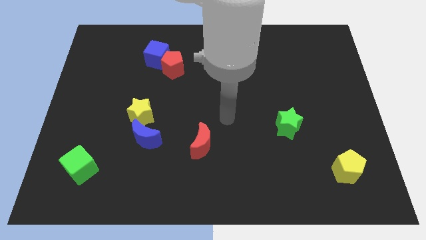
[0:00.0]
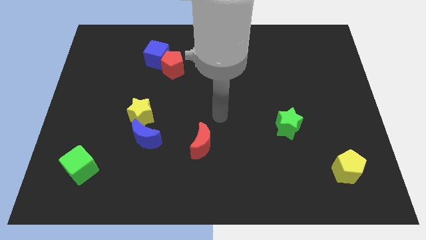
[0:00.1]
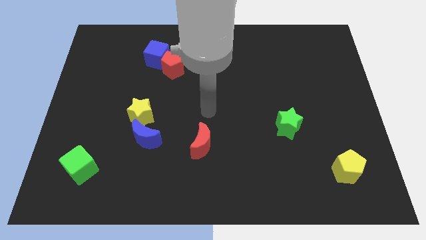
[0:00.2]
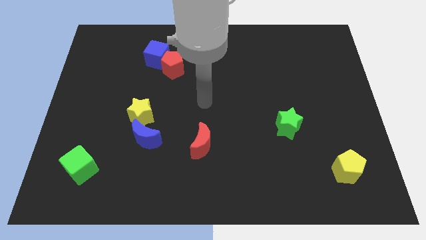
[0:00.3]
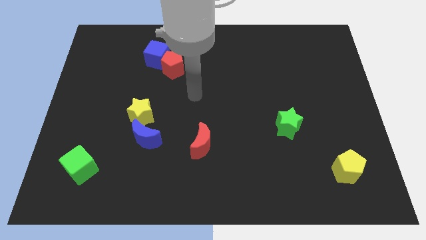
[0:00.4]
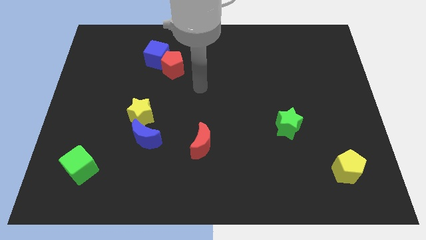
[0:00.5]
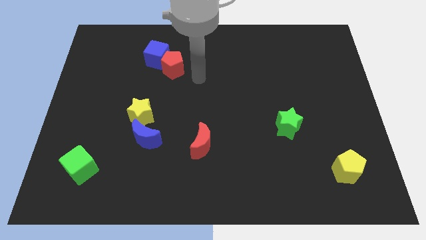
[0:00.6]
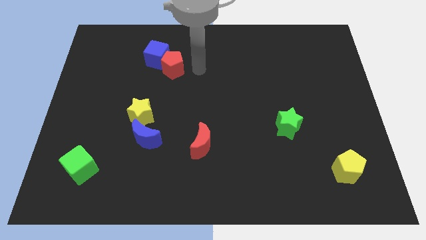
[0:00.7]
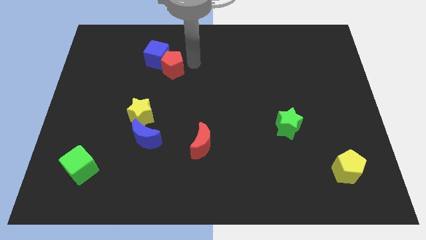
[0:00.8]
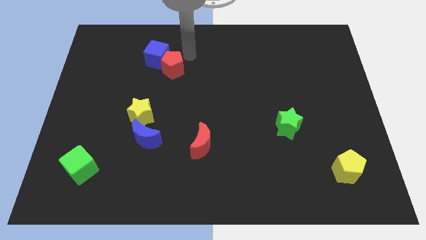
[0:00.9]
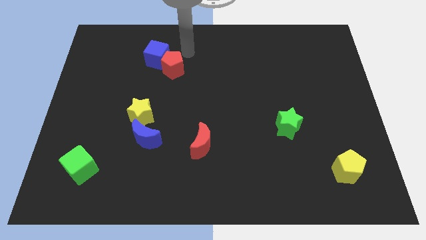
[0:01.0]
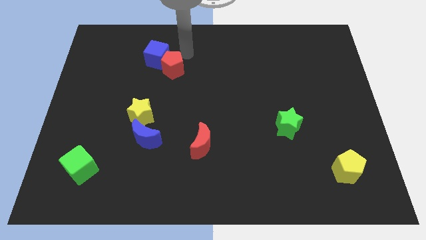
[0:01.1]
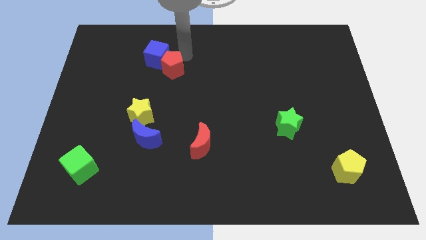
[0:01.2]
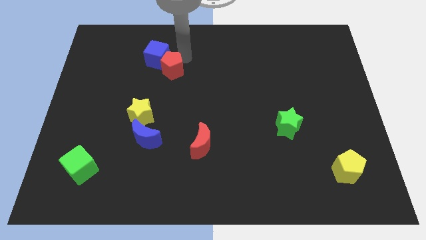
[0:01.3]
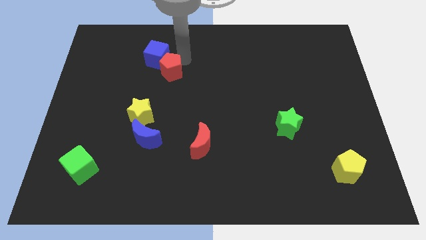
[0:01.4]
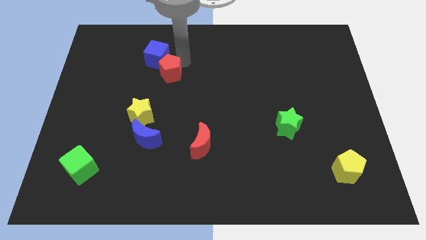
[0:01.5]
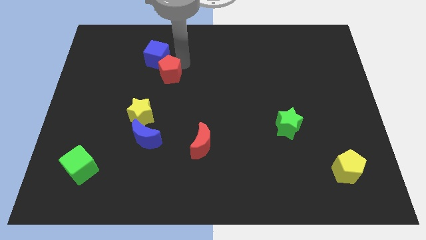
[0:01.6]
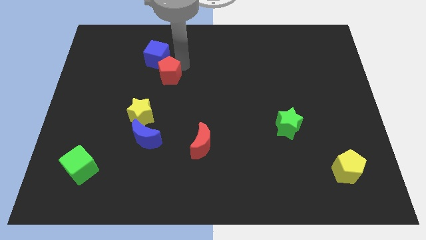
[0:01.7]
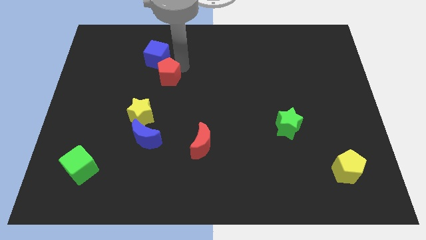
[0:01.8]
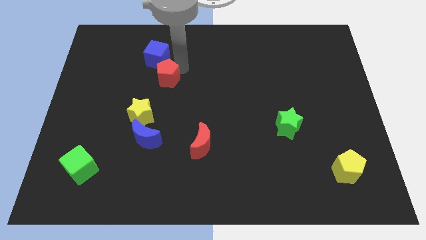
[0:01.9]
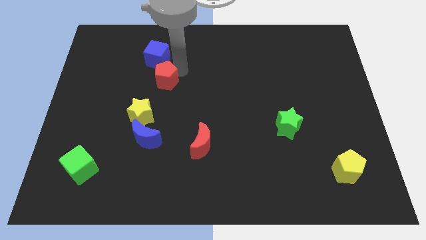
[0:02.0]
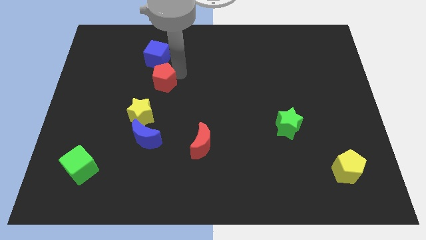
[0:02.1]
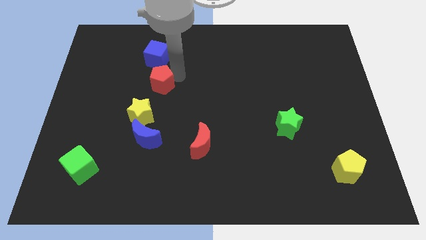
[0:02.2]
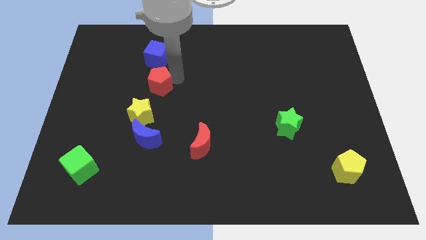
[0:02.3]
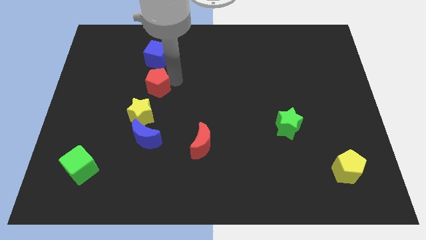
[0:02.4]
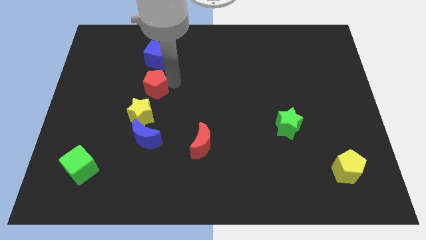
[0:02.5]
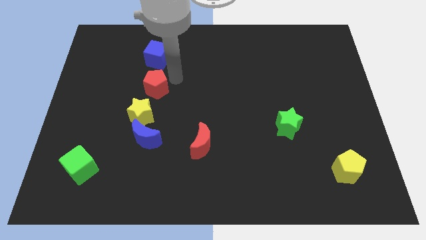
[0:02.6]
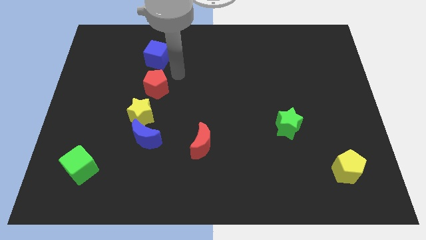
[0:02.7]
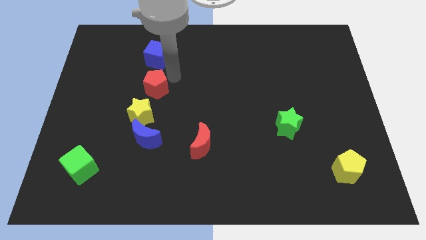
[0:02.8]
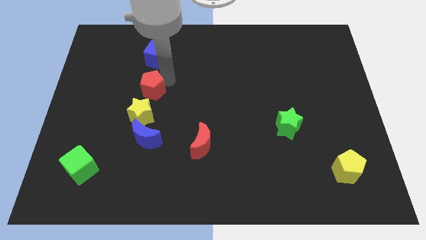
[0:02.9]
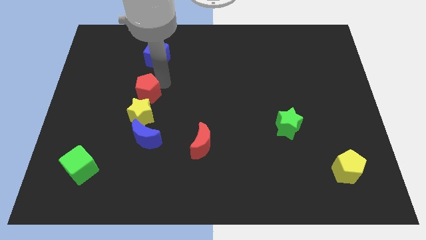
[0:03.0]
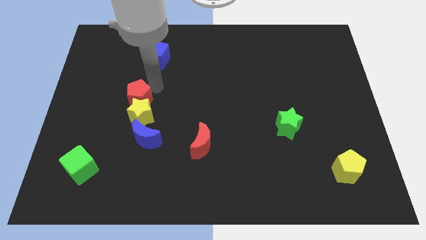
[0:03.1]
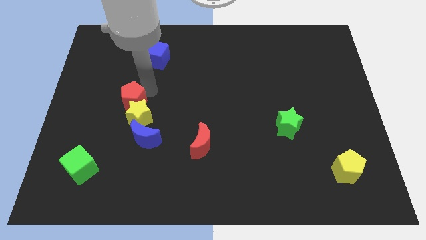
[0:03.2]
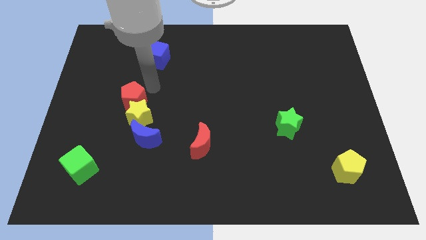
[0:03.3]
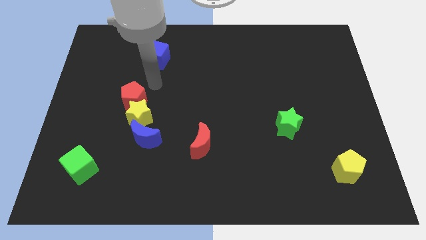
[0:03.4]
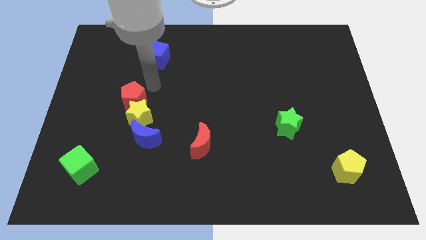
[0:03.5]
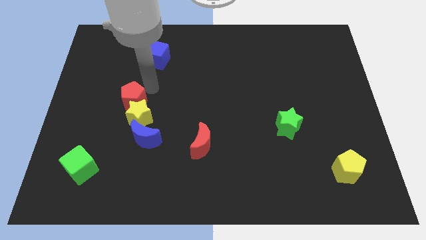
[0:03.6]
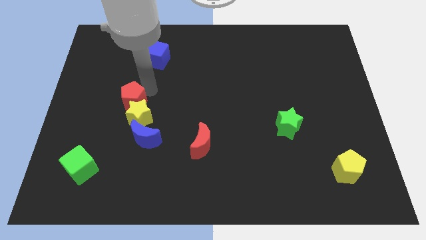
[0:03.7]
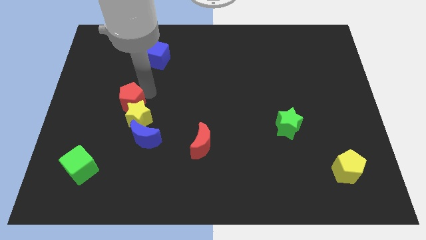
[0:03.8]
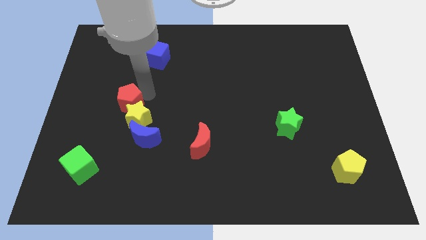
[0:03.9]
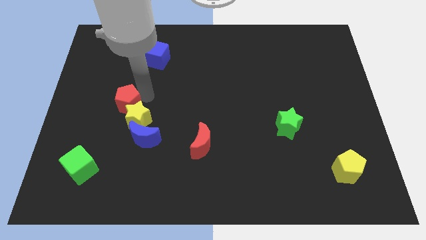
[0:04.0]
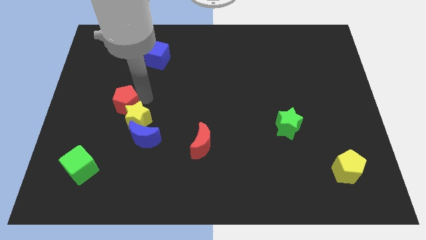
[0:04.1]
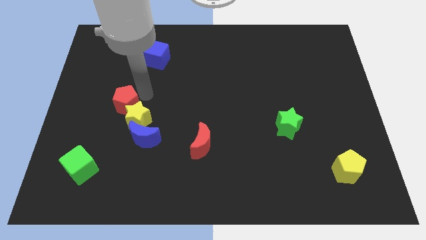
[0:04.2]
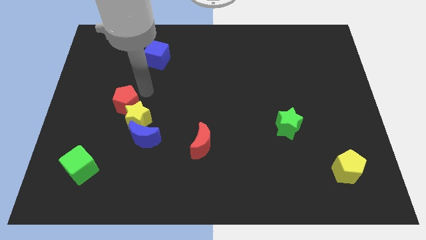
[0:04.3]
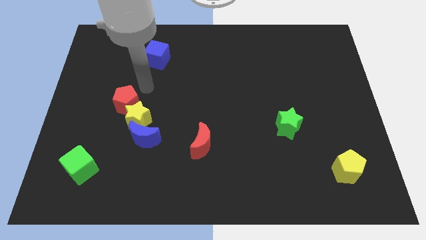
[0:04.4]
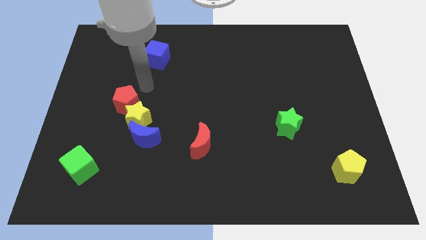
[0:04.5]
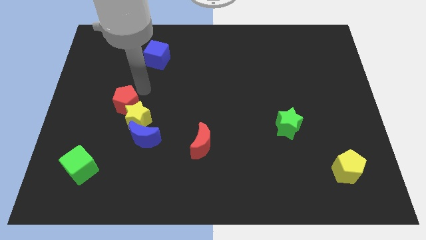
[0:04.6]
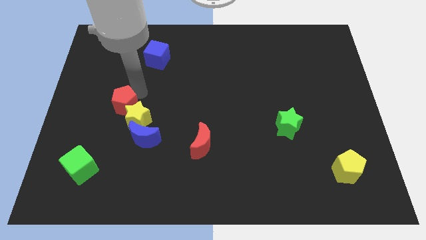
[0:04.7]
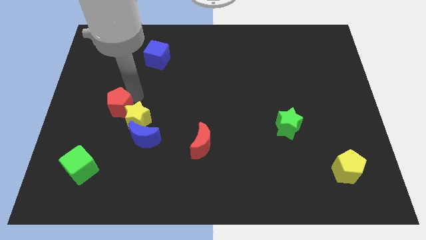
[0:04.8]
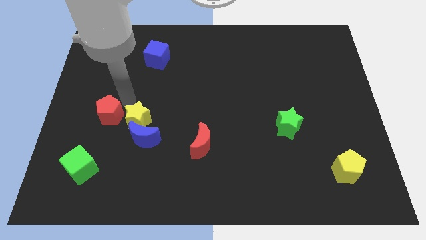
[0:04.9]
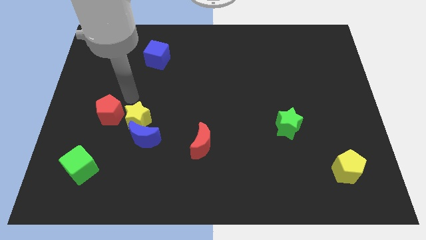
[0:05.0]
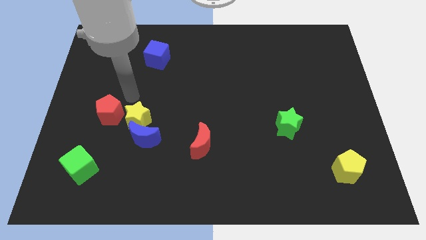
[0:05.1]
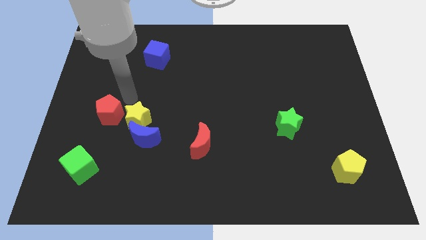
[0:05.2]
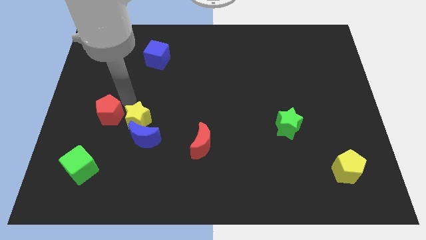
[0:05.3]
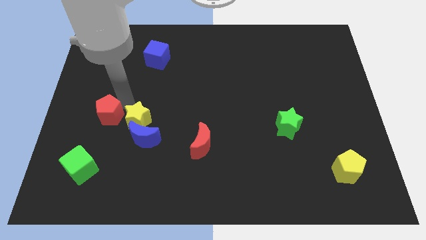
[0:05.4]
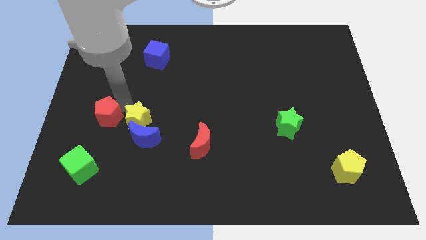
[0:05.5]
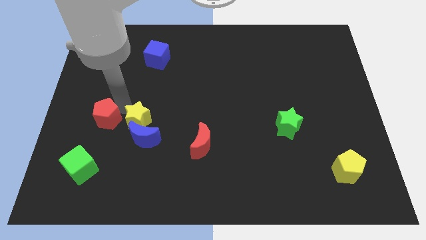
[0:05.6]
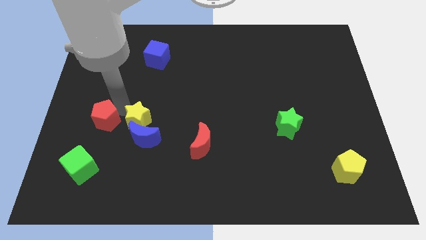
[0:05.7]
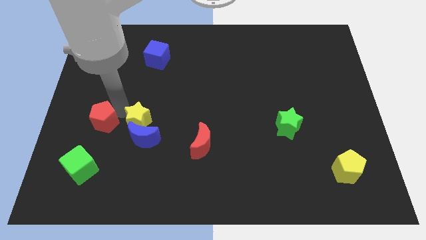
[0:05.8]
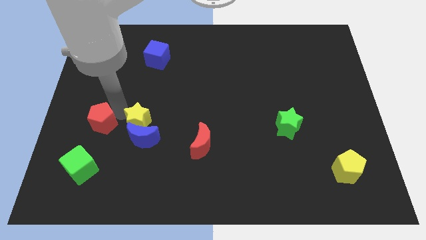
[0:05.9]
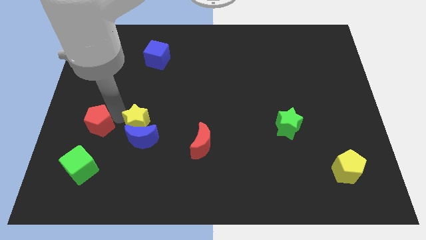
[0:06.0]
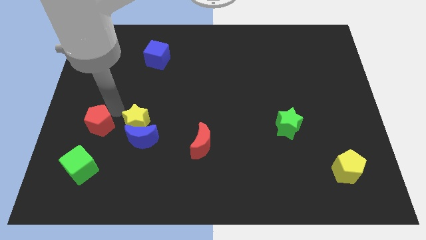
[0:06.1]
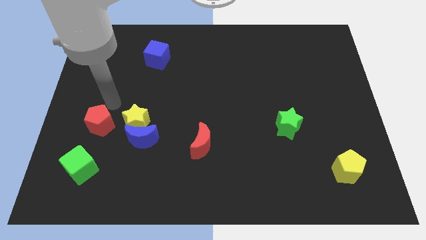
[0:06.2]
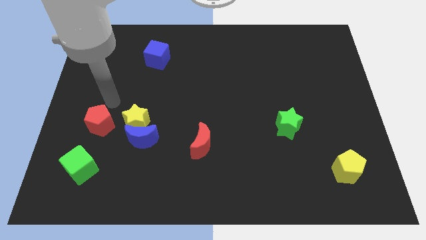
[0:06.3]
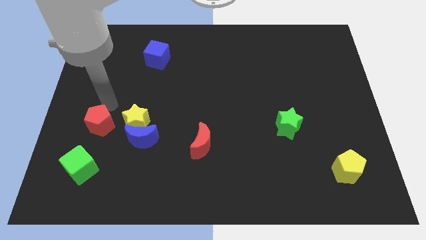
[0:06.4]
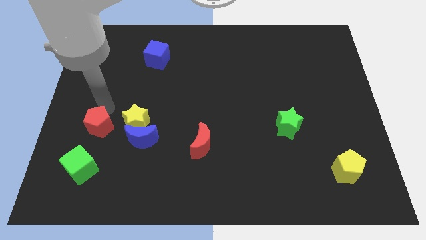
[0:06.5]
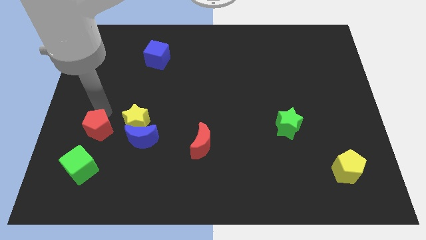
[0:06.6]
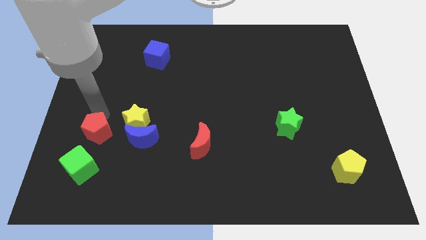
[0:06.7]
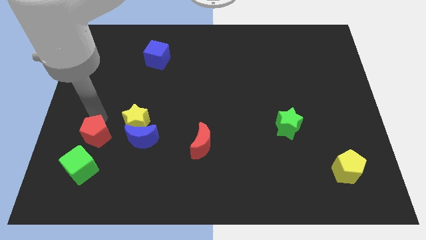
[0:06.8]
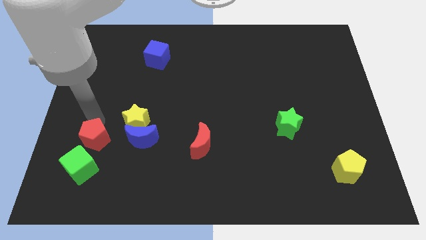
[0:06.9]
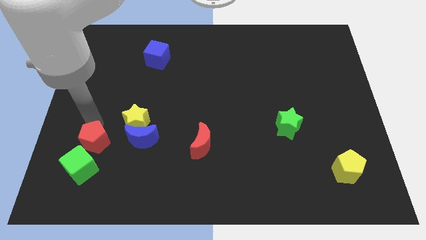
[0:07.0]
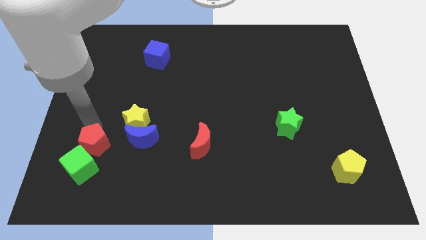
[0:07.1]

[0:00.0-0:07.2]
slide the red pentagon towards the green cube

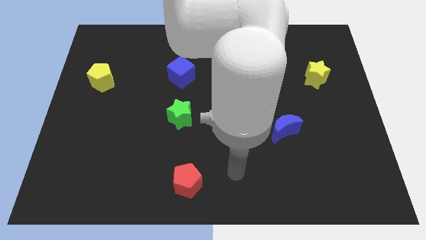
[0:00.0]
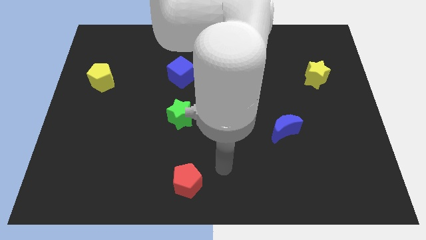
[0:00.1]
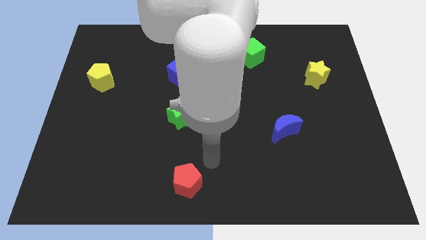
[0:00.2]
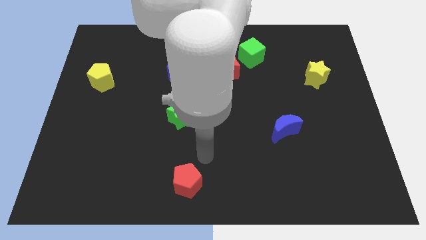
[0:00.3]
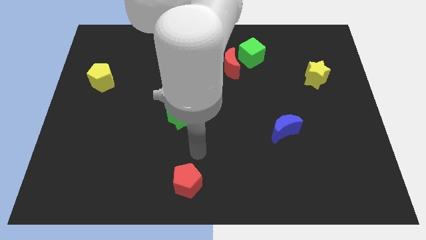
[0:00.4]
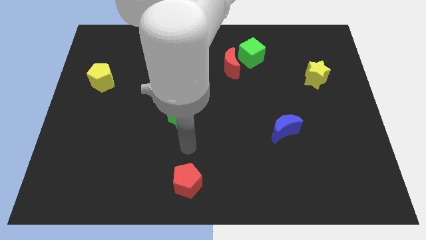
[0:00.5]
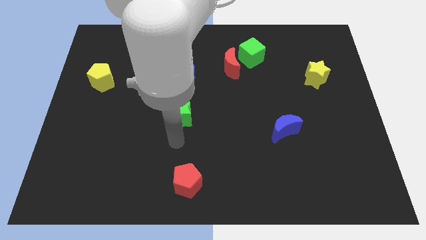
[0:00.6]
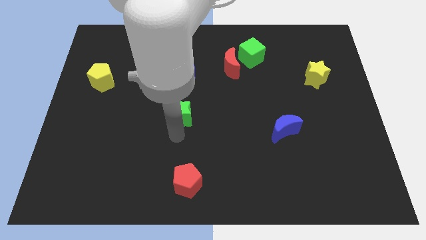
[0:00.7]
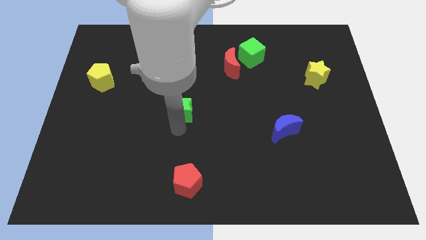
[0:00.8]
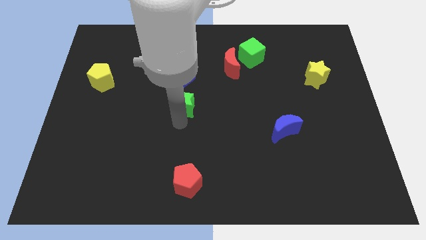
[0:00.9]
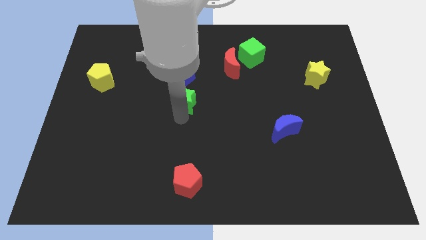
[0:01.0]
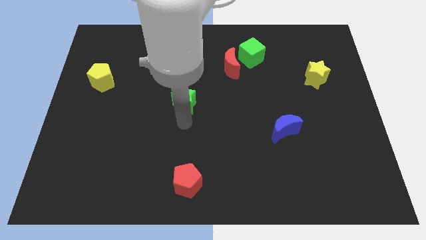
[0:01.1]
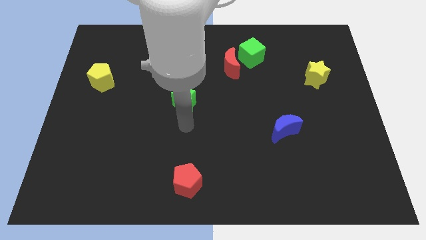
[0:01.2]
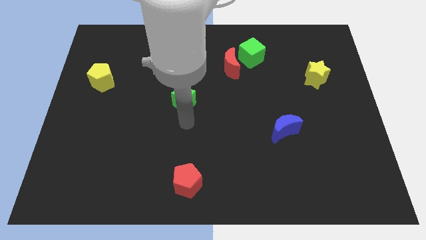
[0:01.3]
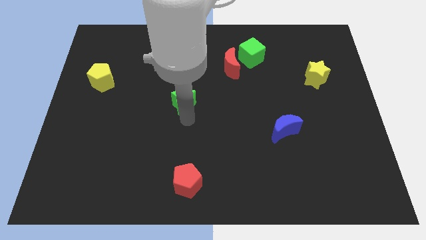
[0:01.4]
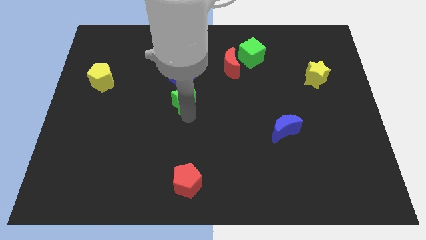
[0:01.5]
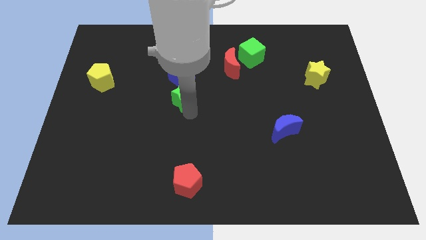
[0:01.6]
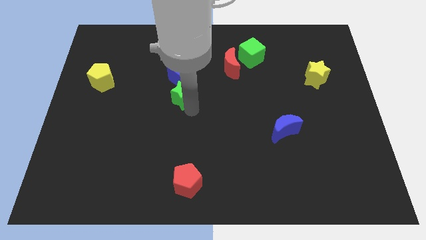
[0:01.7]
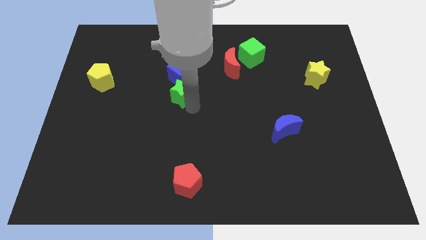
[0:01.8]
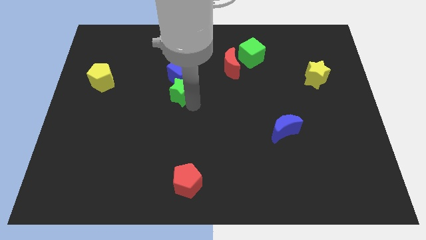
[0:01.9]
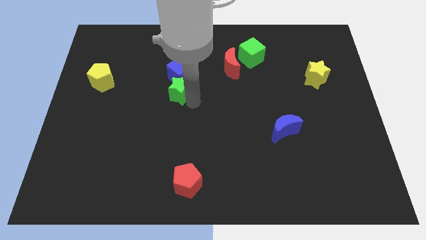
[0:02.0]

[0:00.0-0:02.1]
push the green star towards the blue cube
